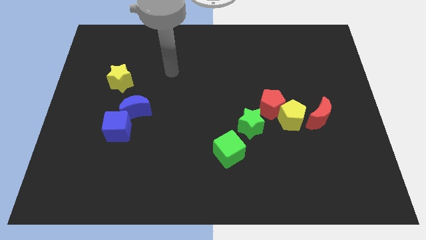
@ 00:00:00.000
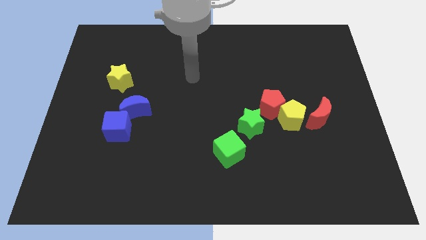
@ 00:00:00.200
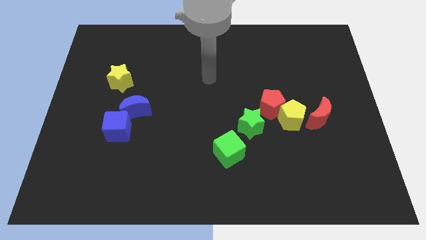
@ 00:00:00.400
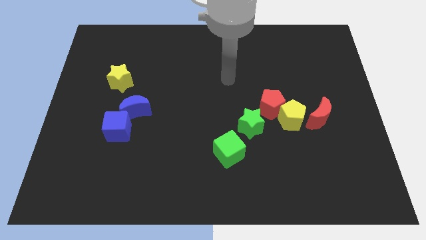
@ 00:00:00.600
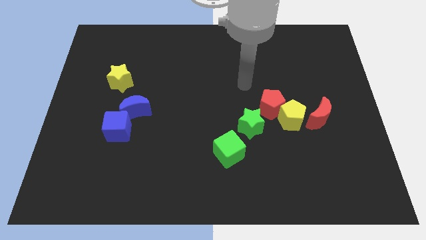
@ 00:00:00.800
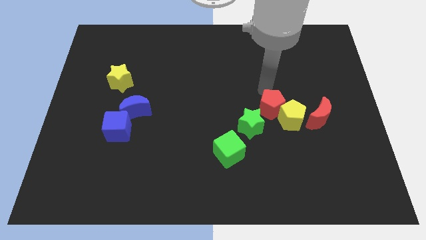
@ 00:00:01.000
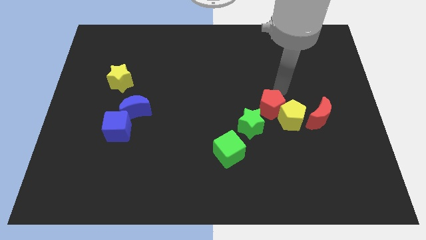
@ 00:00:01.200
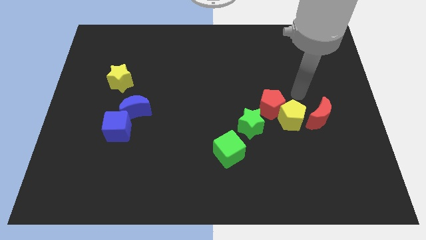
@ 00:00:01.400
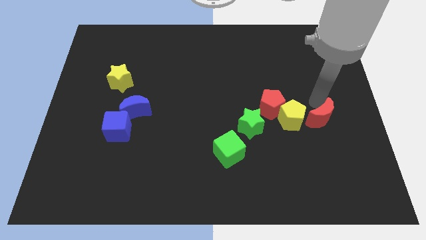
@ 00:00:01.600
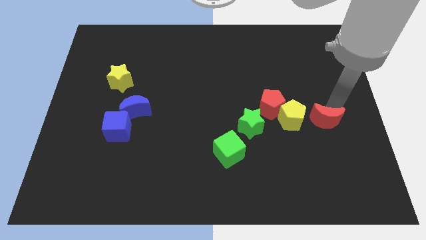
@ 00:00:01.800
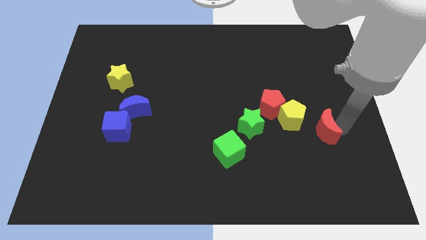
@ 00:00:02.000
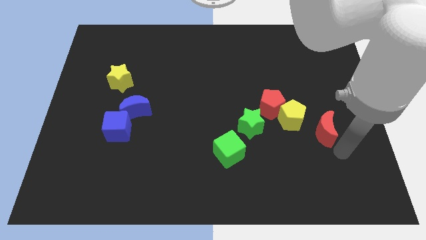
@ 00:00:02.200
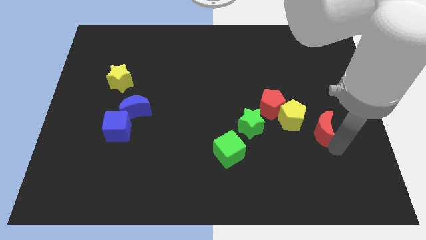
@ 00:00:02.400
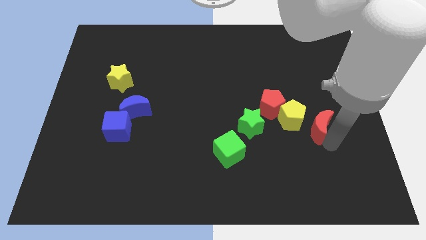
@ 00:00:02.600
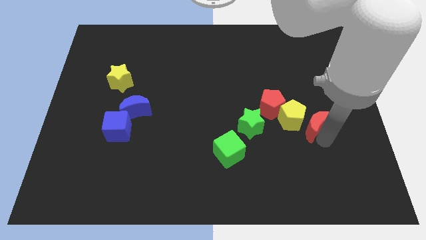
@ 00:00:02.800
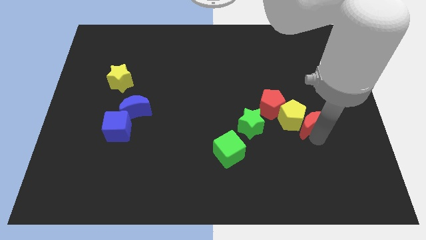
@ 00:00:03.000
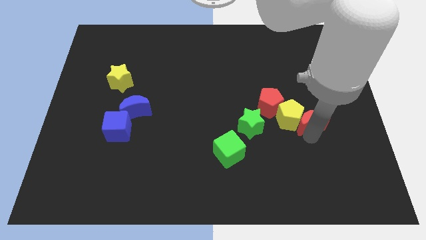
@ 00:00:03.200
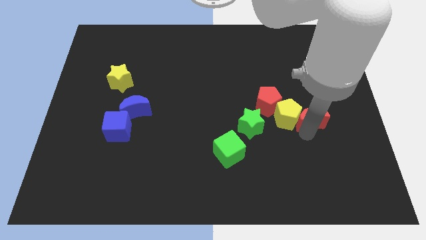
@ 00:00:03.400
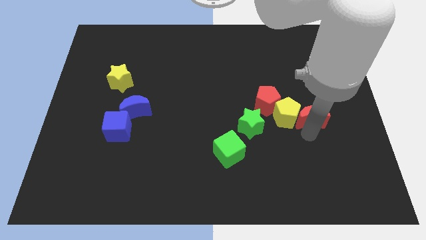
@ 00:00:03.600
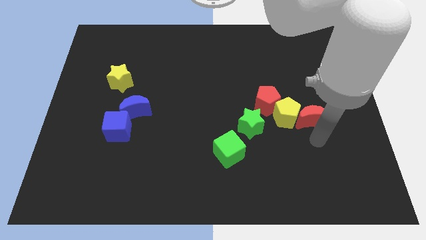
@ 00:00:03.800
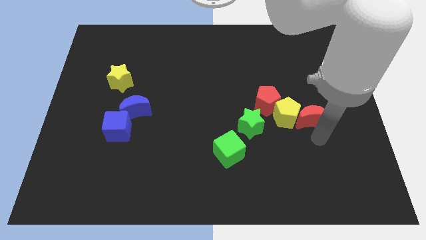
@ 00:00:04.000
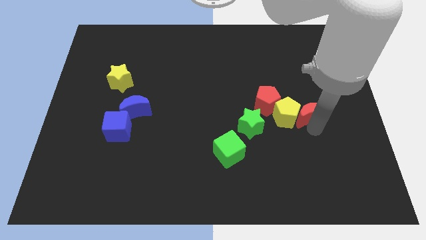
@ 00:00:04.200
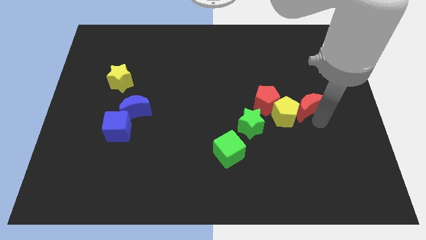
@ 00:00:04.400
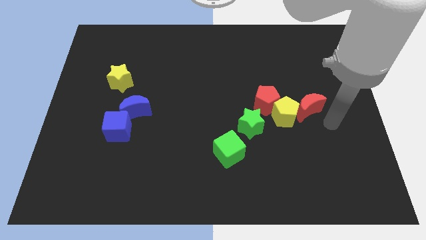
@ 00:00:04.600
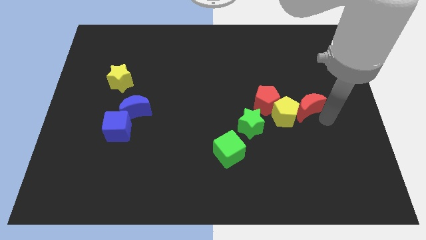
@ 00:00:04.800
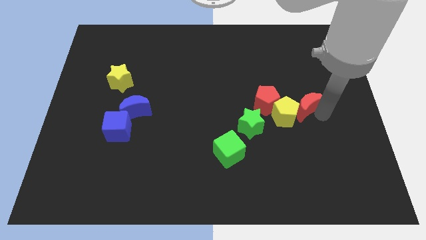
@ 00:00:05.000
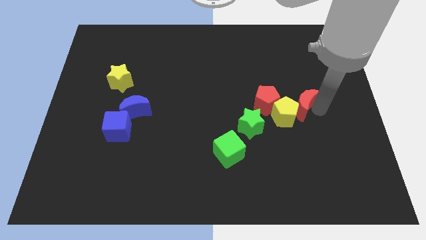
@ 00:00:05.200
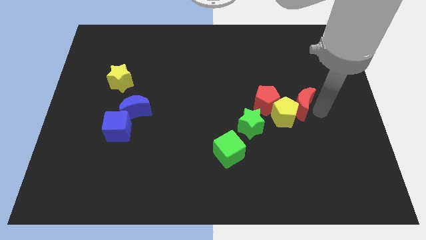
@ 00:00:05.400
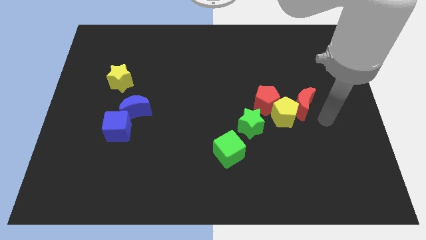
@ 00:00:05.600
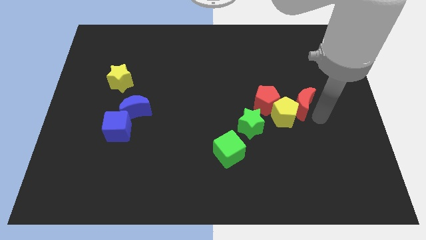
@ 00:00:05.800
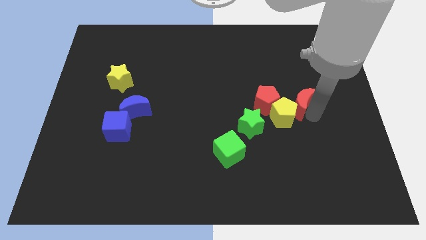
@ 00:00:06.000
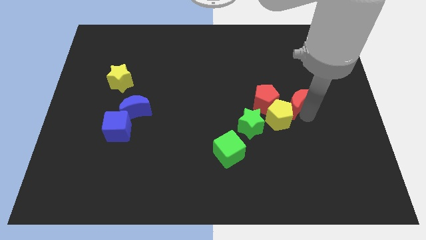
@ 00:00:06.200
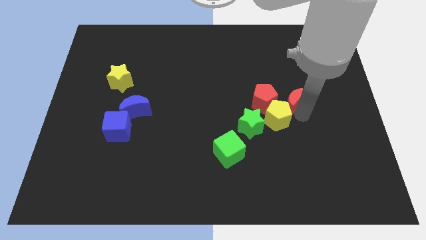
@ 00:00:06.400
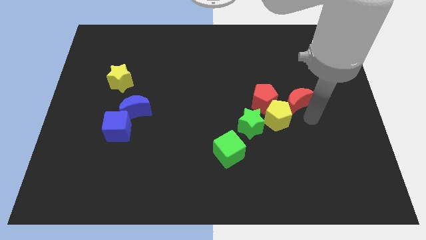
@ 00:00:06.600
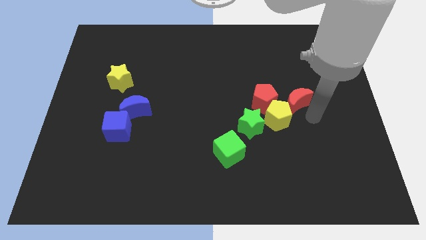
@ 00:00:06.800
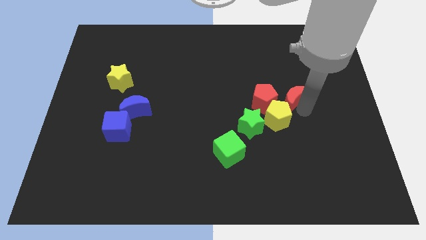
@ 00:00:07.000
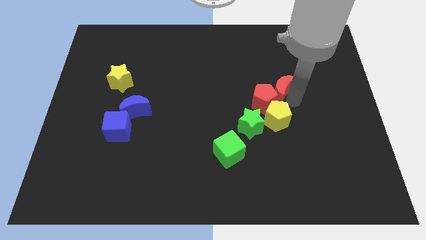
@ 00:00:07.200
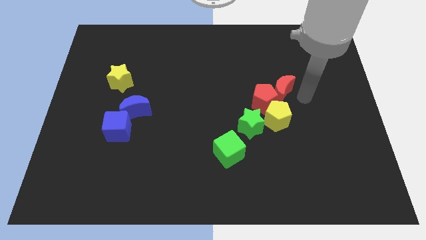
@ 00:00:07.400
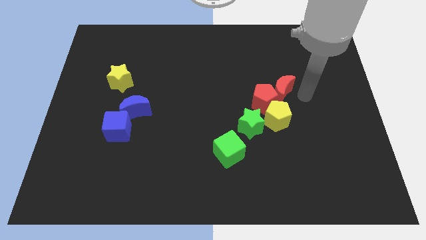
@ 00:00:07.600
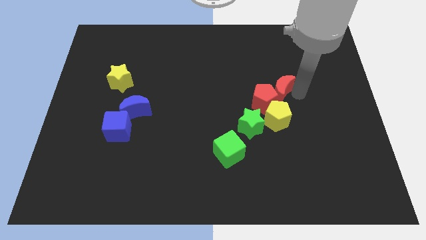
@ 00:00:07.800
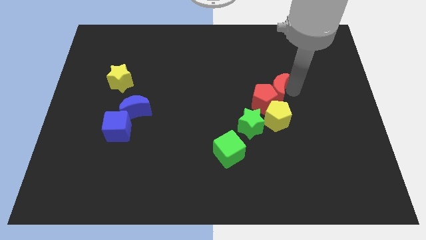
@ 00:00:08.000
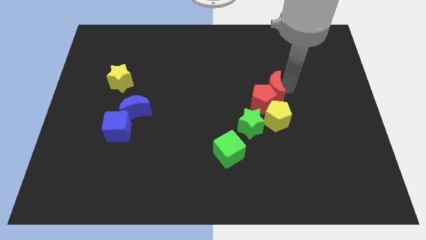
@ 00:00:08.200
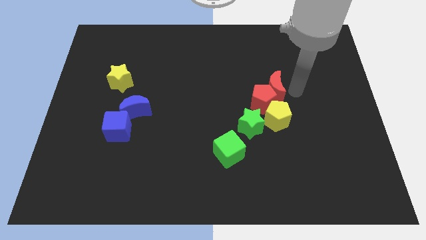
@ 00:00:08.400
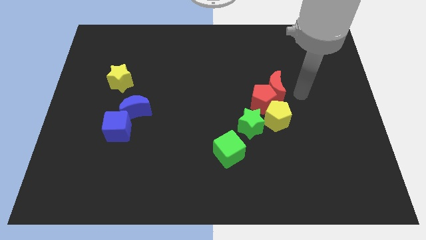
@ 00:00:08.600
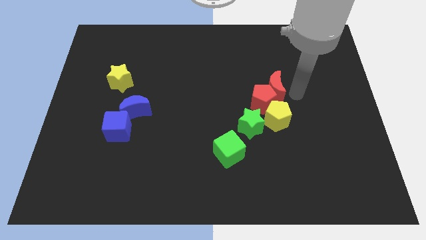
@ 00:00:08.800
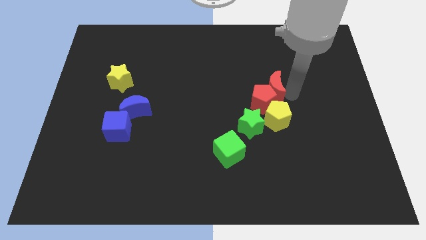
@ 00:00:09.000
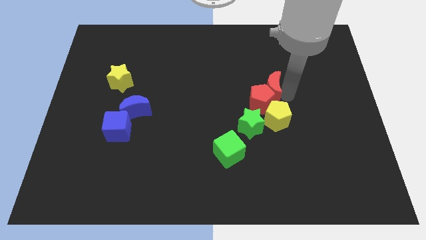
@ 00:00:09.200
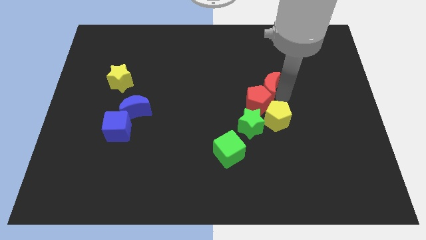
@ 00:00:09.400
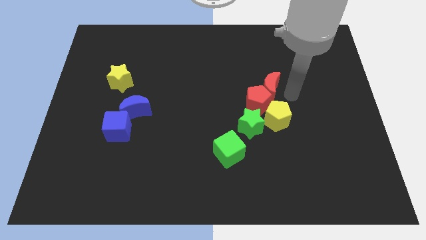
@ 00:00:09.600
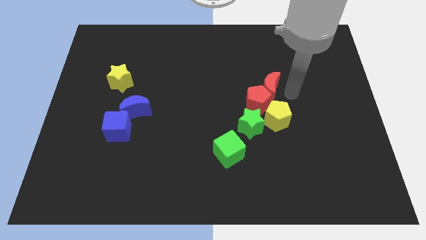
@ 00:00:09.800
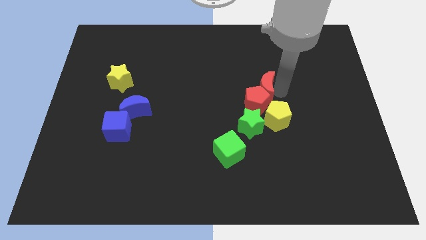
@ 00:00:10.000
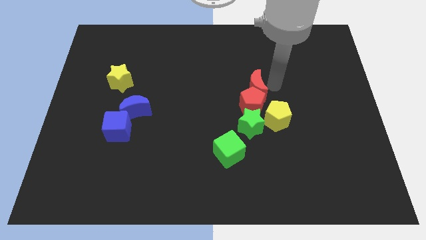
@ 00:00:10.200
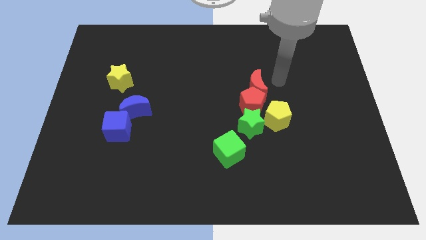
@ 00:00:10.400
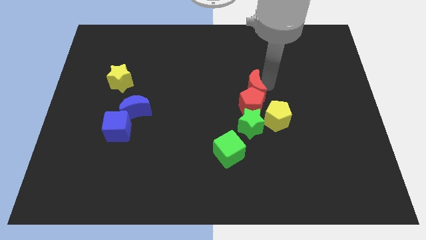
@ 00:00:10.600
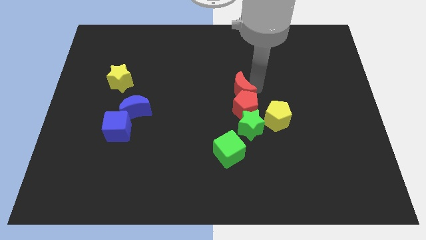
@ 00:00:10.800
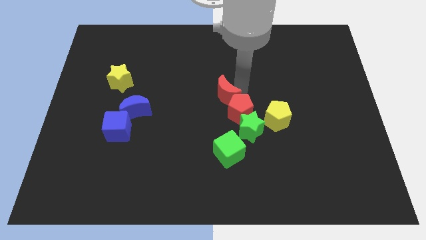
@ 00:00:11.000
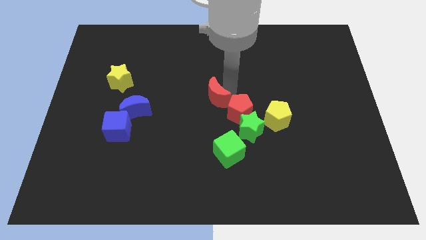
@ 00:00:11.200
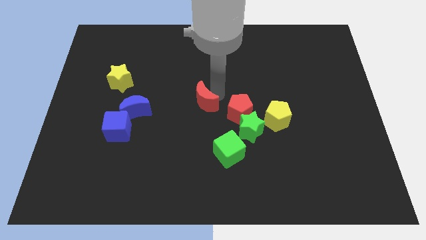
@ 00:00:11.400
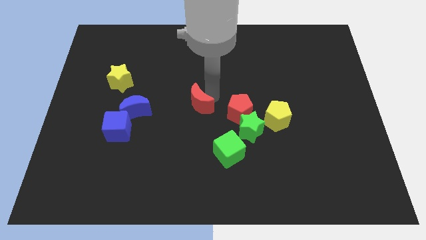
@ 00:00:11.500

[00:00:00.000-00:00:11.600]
put the red moon just right of the blue moon

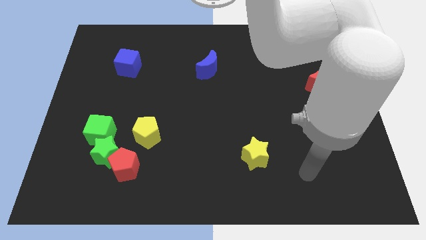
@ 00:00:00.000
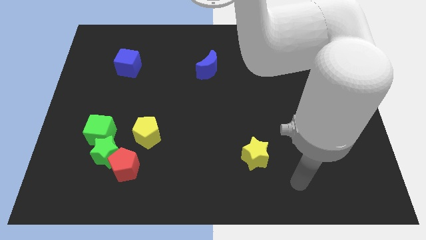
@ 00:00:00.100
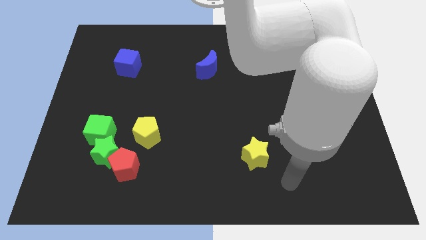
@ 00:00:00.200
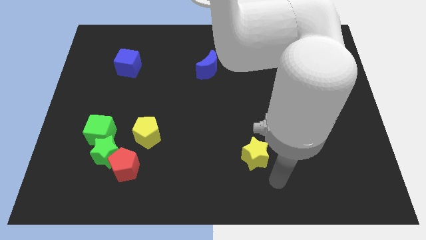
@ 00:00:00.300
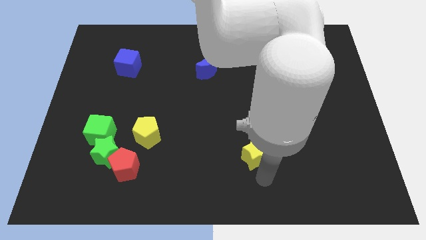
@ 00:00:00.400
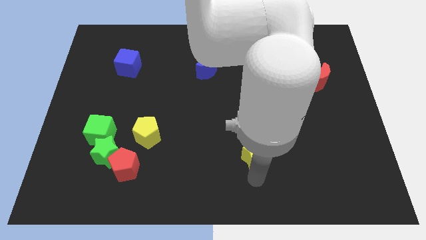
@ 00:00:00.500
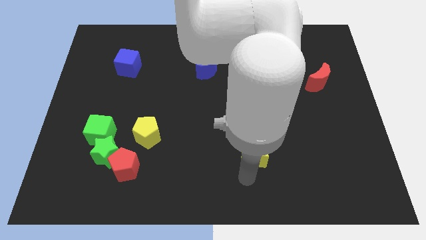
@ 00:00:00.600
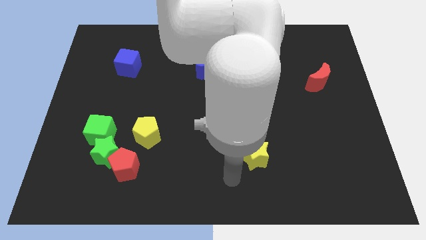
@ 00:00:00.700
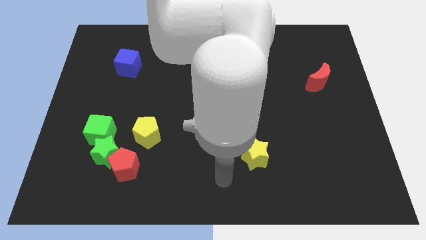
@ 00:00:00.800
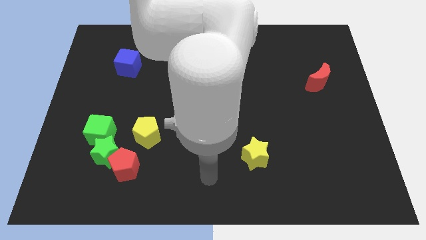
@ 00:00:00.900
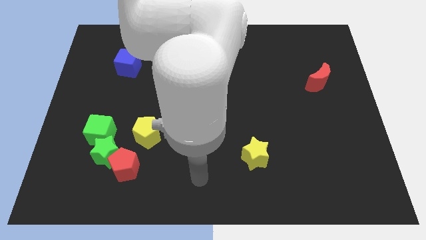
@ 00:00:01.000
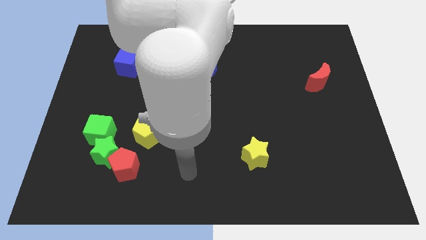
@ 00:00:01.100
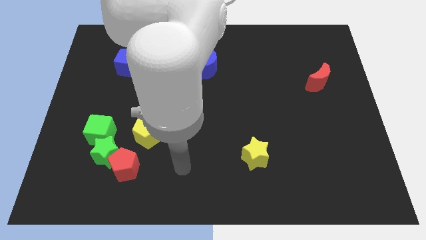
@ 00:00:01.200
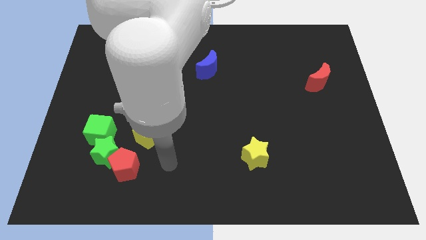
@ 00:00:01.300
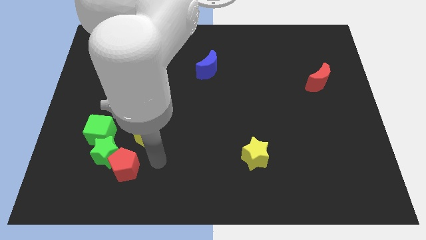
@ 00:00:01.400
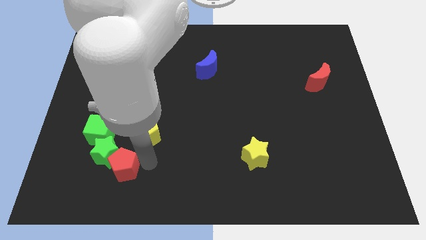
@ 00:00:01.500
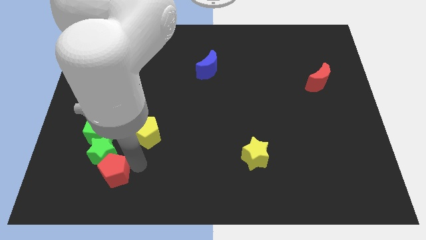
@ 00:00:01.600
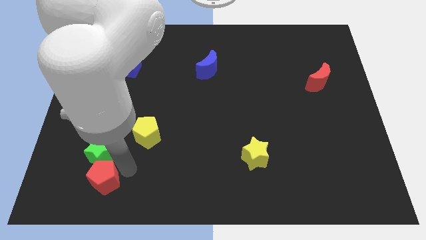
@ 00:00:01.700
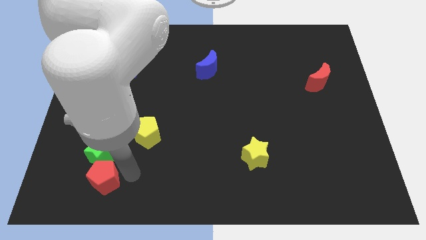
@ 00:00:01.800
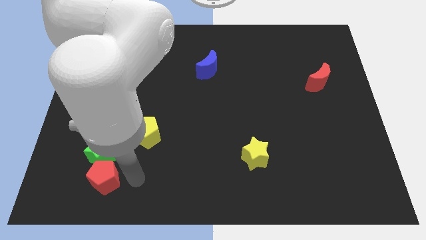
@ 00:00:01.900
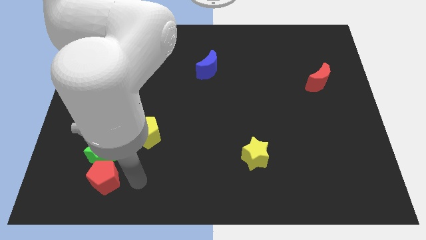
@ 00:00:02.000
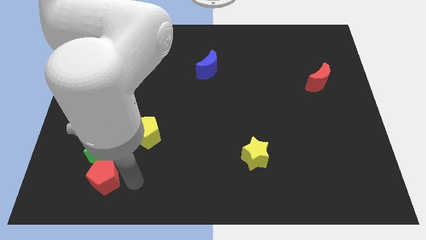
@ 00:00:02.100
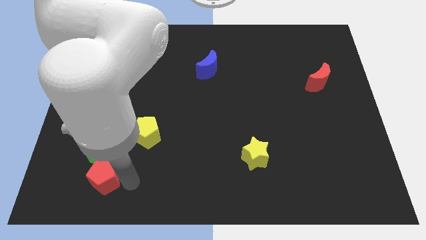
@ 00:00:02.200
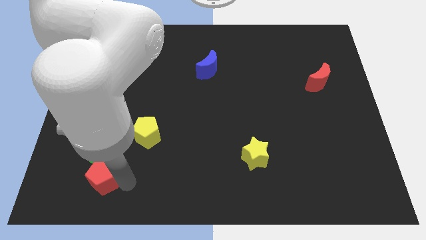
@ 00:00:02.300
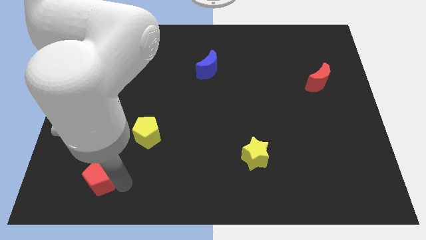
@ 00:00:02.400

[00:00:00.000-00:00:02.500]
put the red pentagon to the bottom left of the green star
